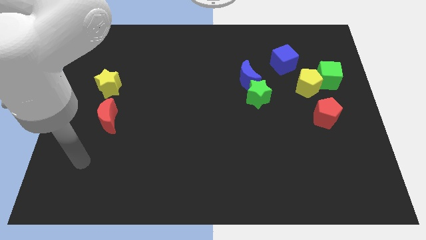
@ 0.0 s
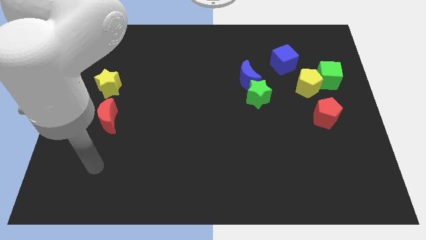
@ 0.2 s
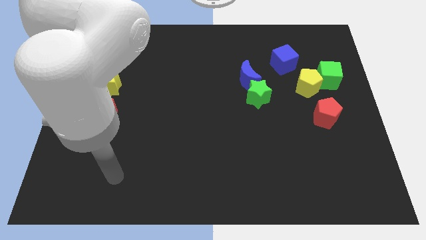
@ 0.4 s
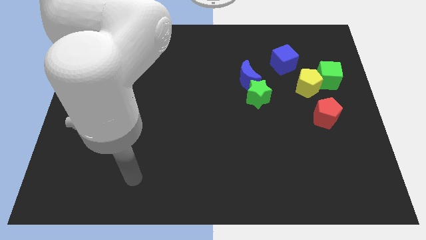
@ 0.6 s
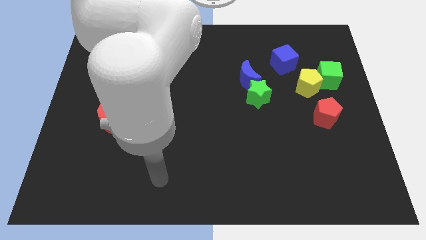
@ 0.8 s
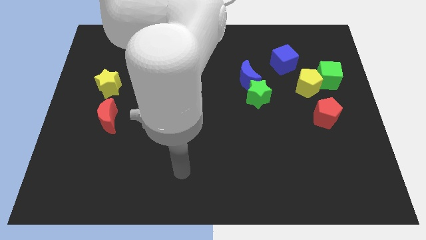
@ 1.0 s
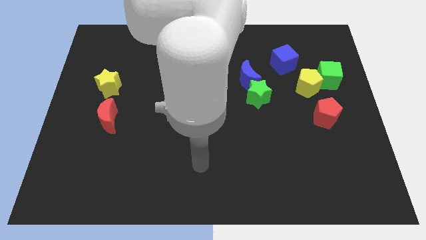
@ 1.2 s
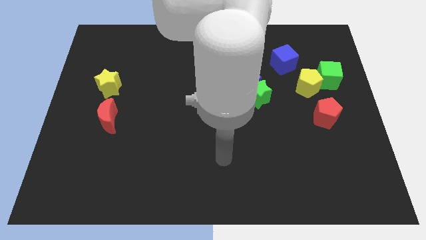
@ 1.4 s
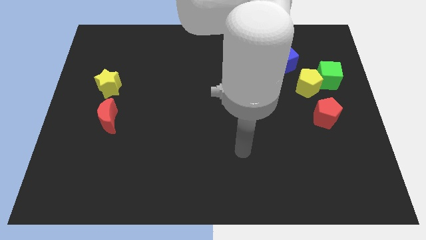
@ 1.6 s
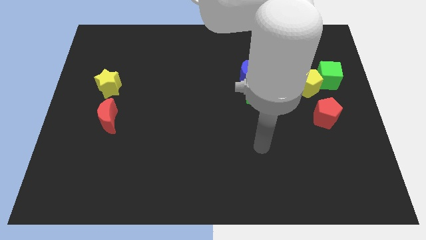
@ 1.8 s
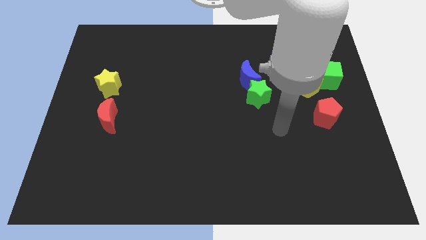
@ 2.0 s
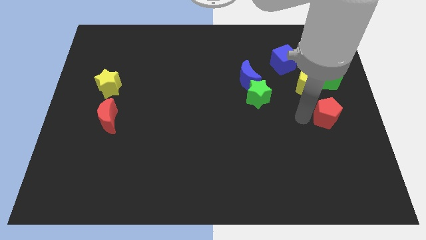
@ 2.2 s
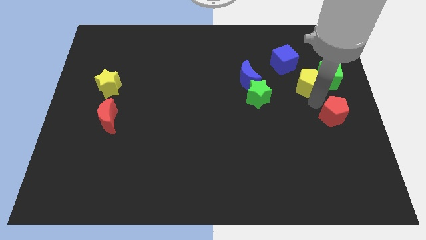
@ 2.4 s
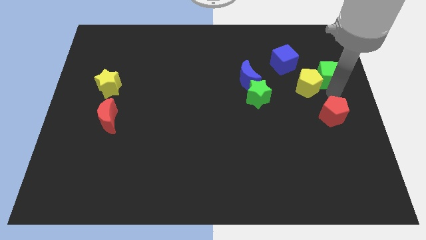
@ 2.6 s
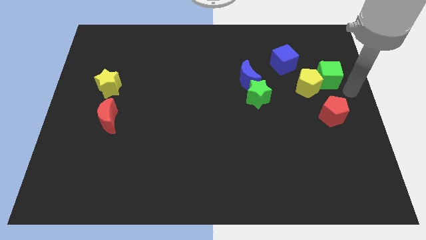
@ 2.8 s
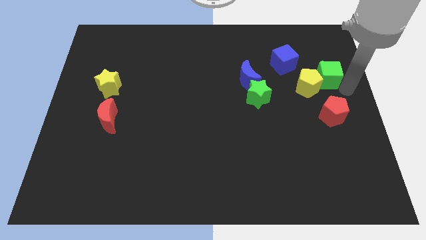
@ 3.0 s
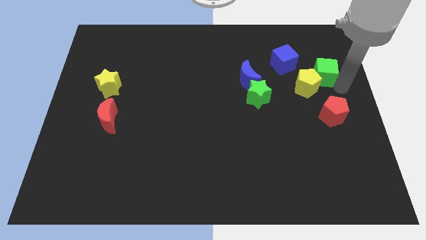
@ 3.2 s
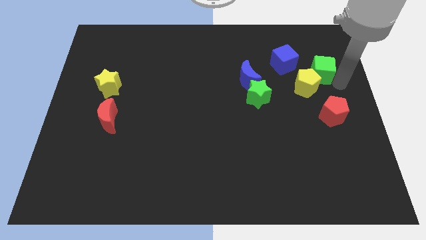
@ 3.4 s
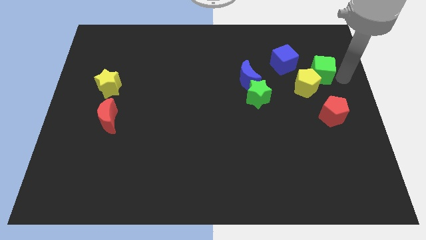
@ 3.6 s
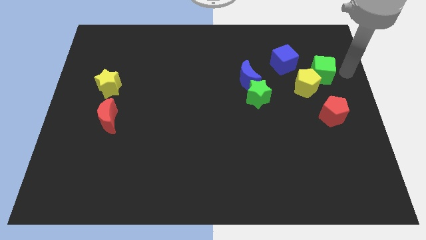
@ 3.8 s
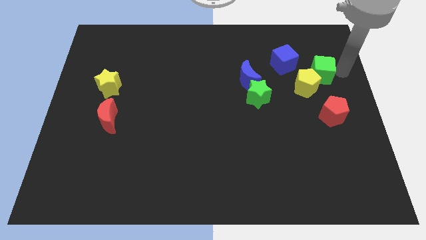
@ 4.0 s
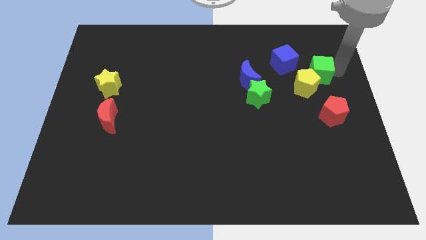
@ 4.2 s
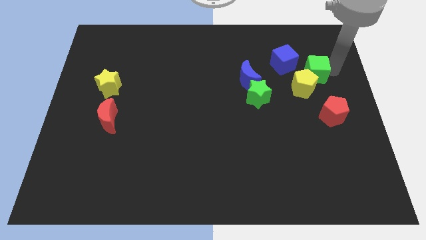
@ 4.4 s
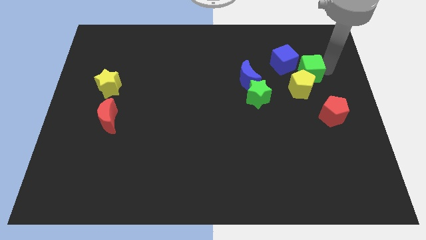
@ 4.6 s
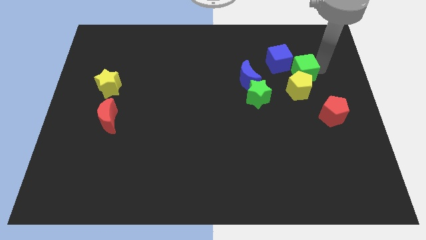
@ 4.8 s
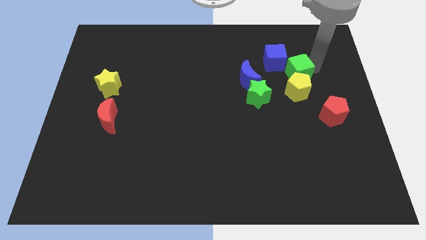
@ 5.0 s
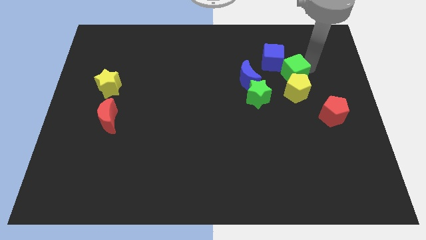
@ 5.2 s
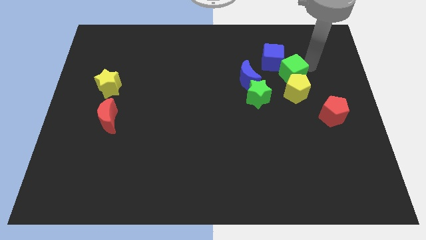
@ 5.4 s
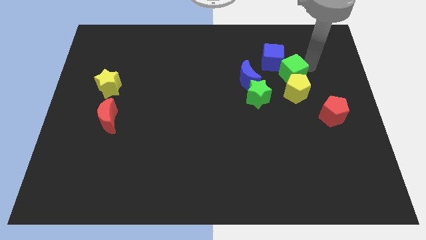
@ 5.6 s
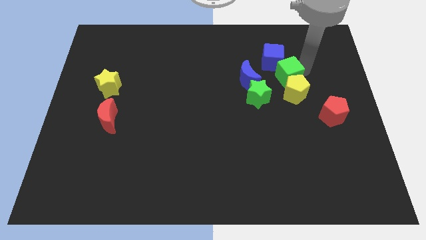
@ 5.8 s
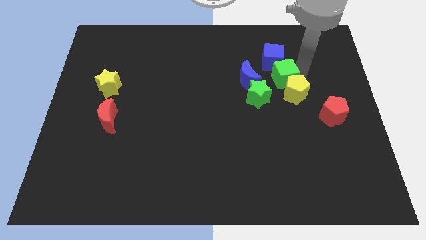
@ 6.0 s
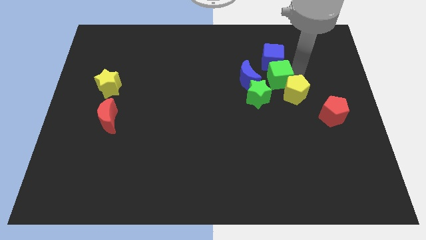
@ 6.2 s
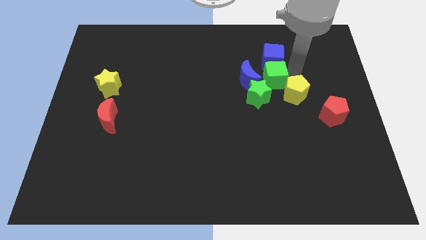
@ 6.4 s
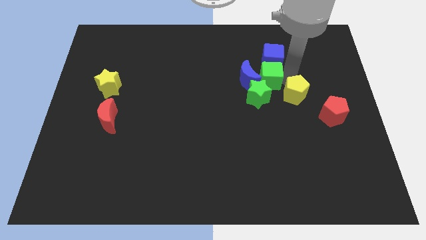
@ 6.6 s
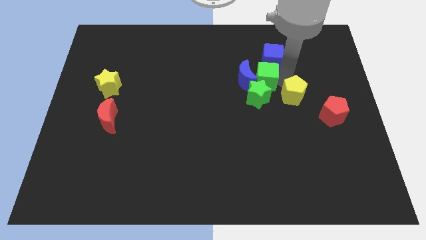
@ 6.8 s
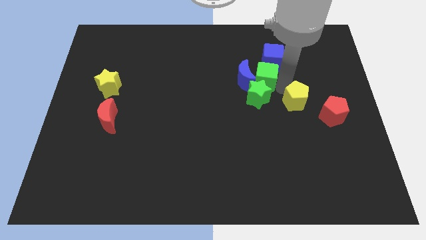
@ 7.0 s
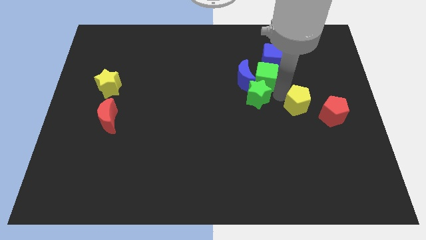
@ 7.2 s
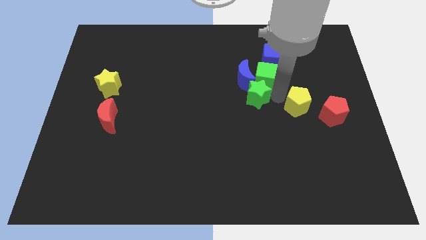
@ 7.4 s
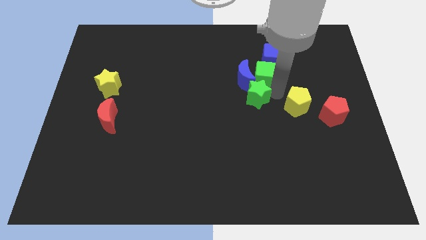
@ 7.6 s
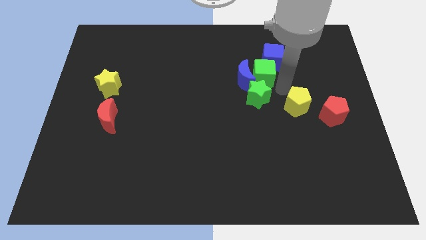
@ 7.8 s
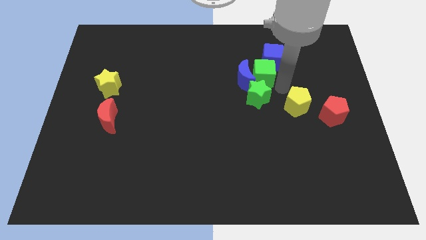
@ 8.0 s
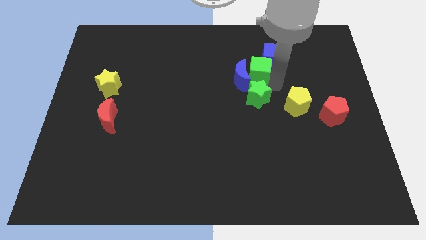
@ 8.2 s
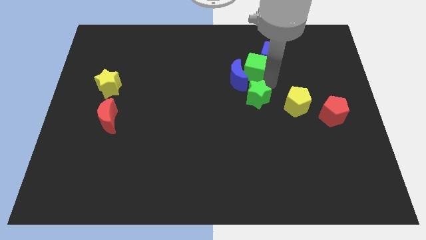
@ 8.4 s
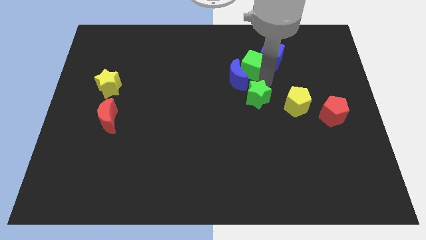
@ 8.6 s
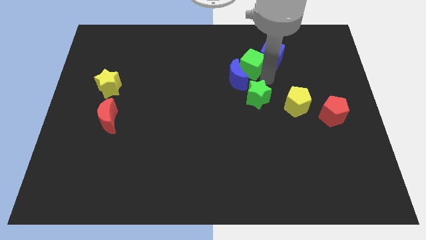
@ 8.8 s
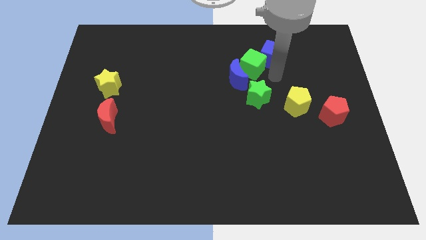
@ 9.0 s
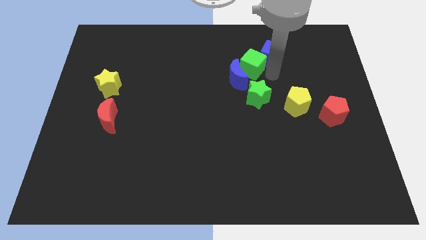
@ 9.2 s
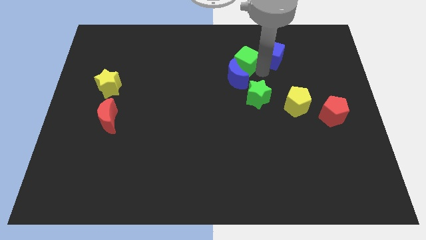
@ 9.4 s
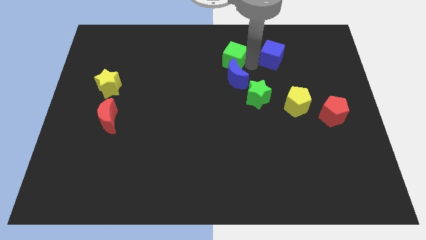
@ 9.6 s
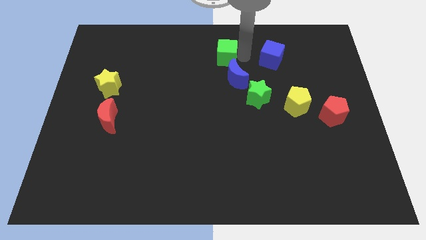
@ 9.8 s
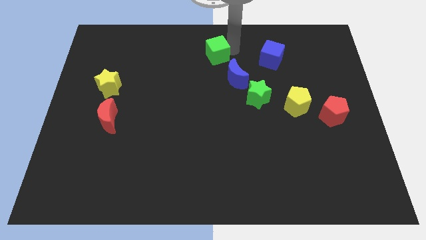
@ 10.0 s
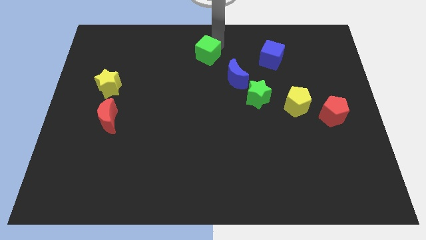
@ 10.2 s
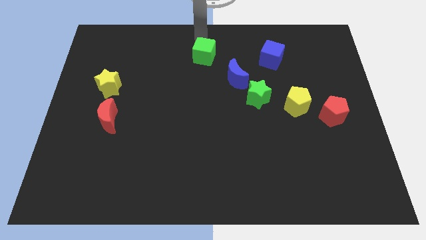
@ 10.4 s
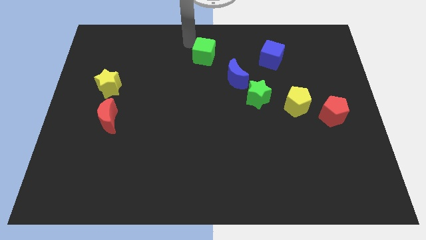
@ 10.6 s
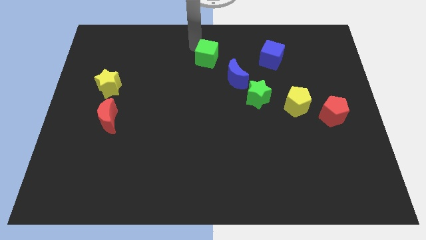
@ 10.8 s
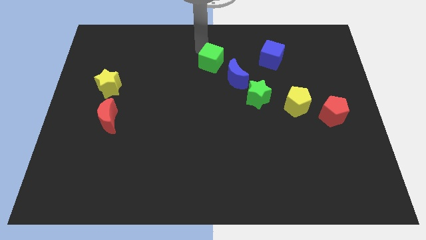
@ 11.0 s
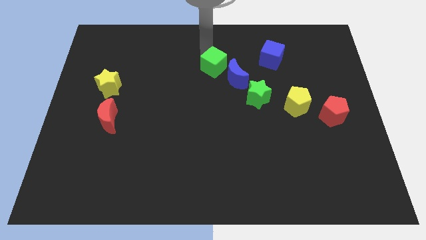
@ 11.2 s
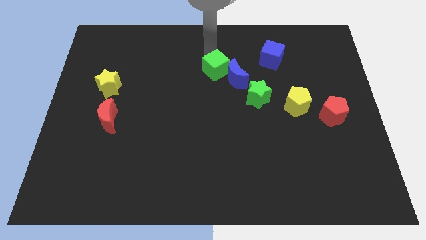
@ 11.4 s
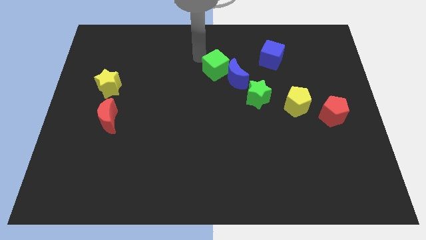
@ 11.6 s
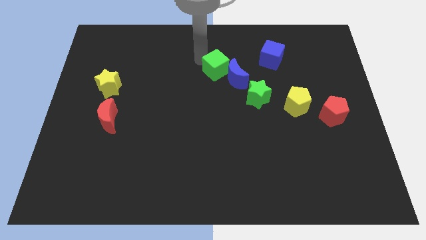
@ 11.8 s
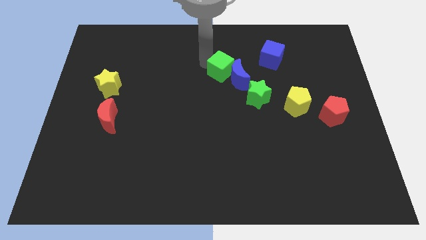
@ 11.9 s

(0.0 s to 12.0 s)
push the green cube to the top left side of the green star

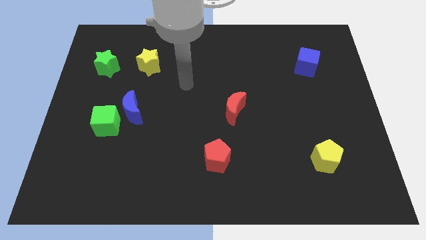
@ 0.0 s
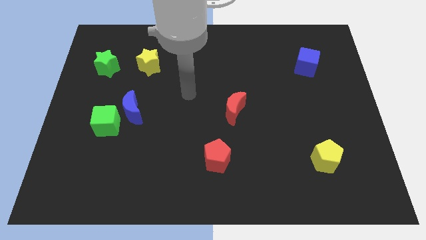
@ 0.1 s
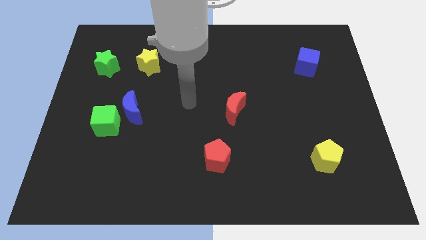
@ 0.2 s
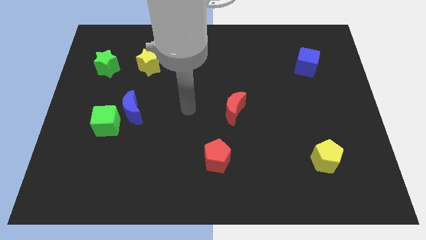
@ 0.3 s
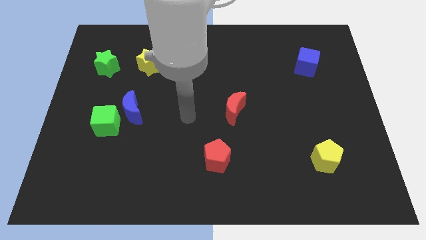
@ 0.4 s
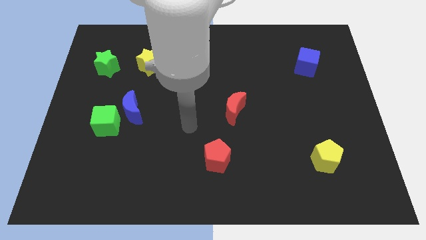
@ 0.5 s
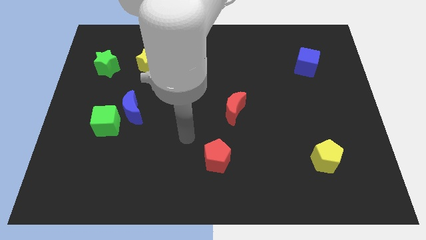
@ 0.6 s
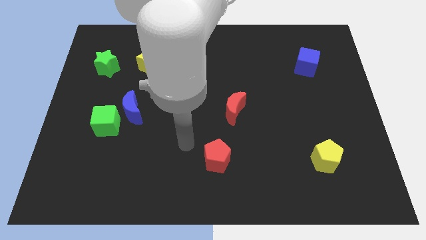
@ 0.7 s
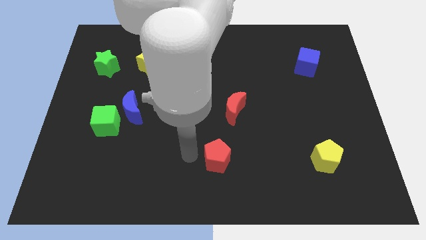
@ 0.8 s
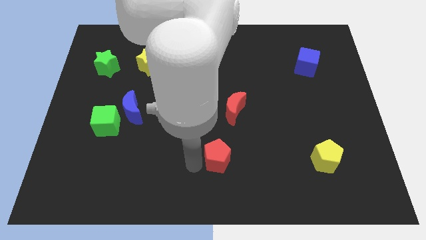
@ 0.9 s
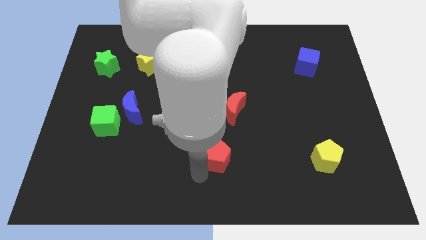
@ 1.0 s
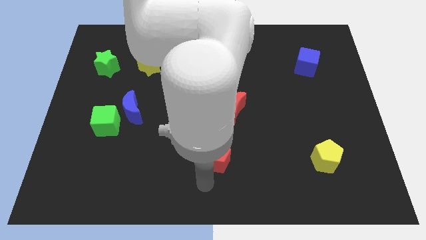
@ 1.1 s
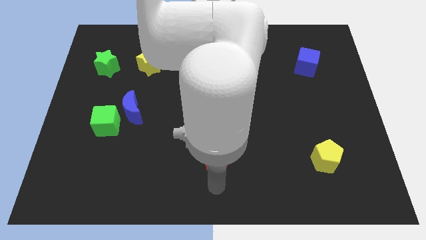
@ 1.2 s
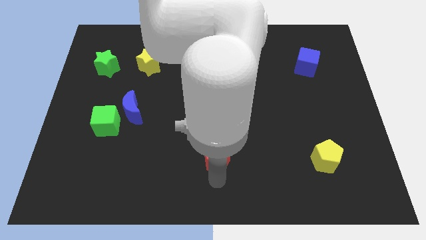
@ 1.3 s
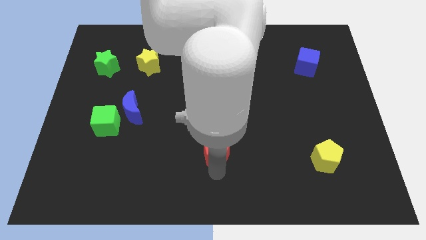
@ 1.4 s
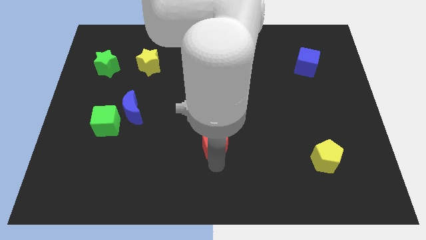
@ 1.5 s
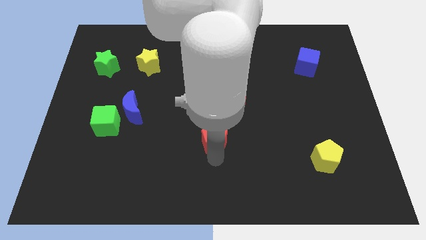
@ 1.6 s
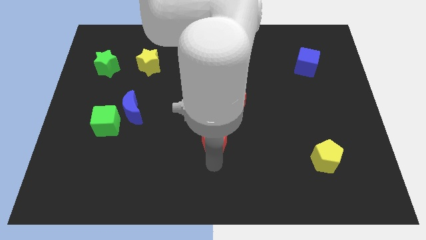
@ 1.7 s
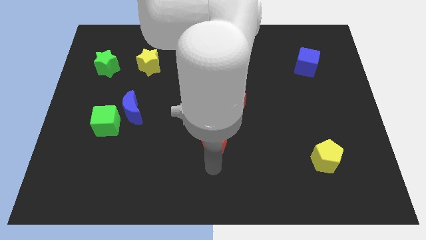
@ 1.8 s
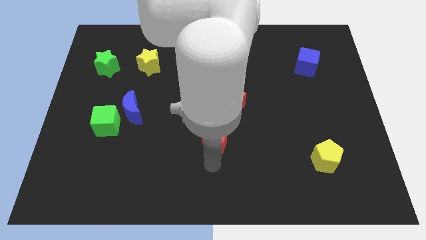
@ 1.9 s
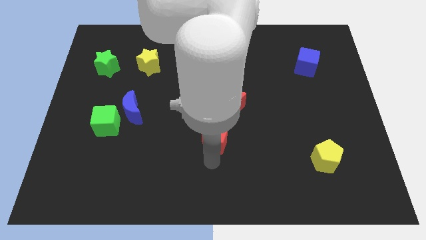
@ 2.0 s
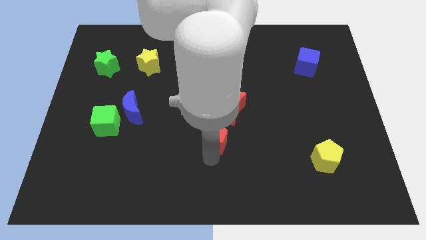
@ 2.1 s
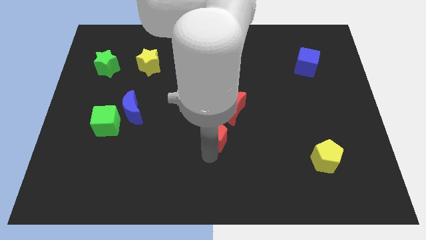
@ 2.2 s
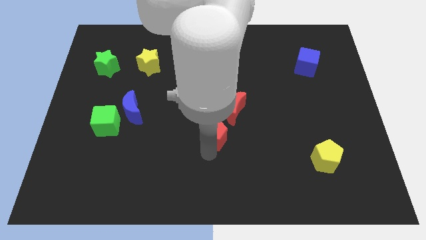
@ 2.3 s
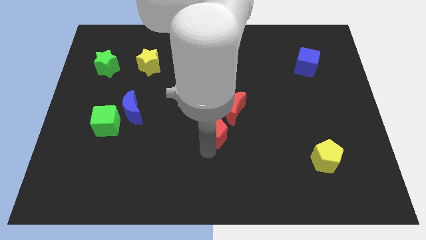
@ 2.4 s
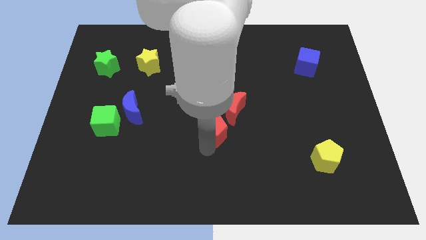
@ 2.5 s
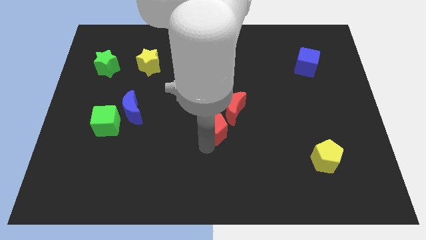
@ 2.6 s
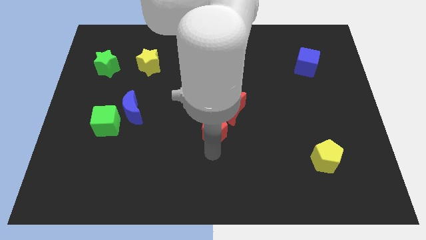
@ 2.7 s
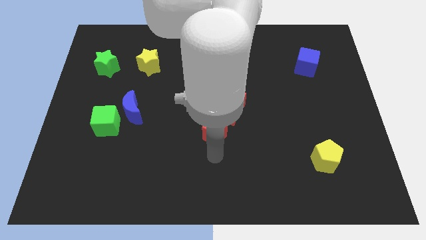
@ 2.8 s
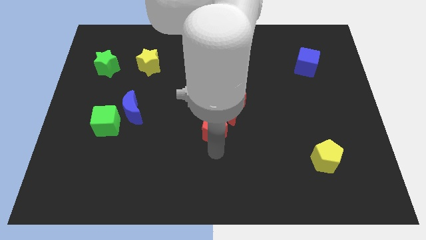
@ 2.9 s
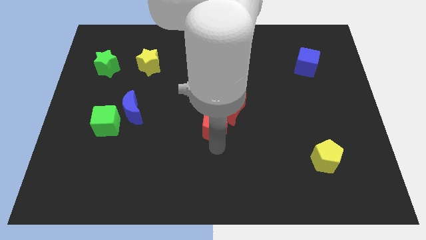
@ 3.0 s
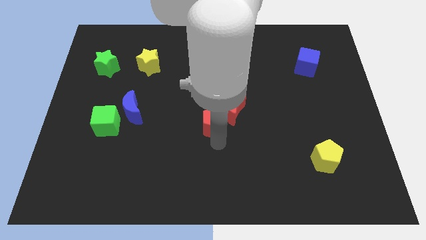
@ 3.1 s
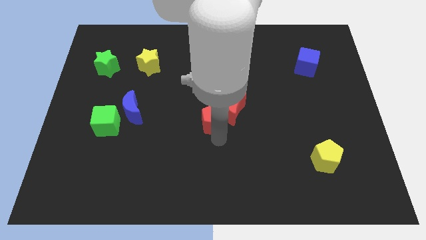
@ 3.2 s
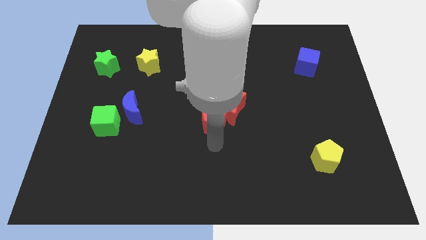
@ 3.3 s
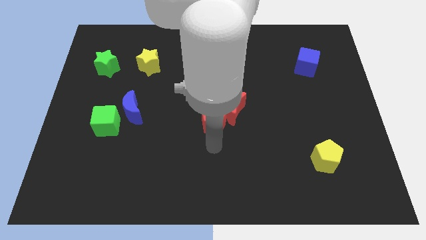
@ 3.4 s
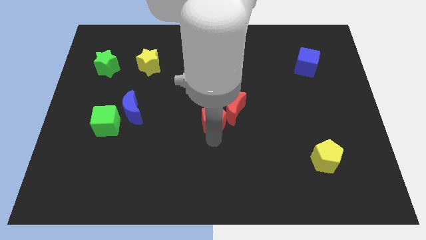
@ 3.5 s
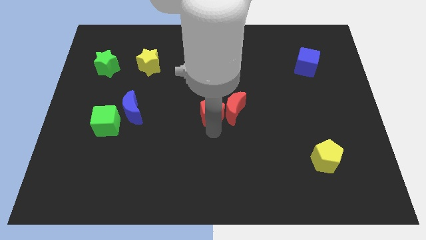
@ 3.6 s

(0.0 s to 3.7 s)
put the red pentagon to the top left of the red moon
